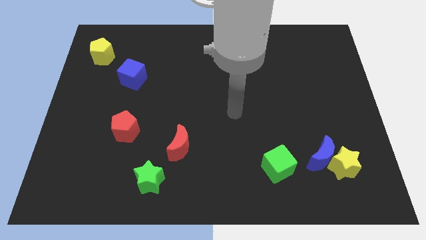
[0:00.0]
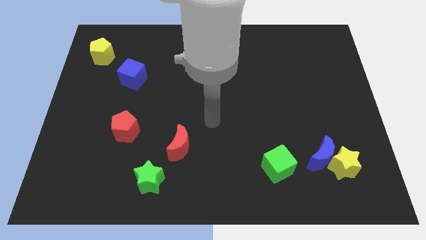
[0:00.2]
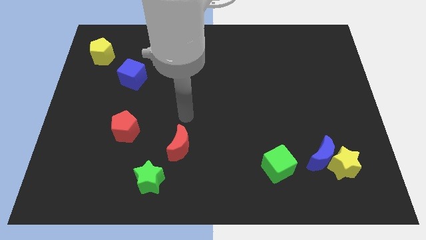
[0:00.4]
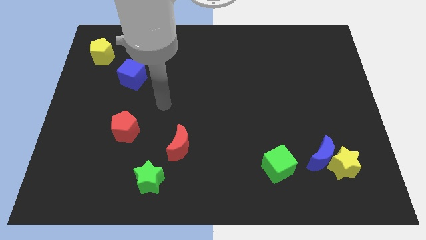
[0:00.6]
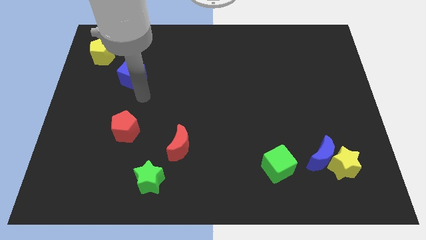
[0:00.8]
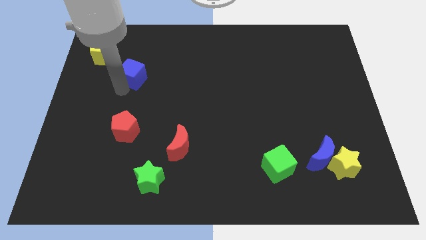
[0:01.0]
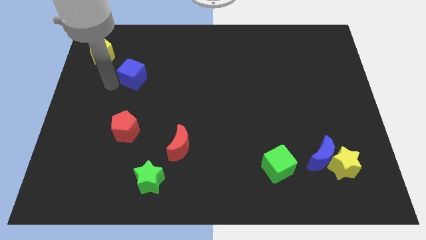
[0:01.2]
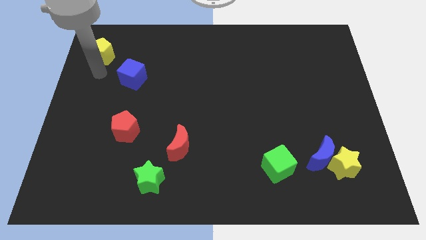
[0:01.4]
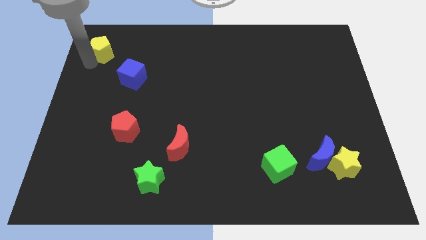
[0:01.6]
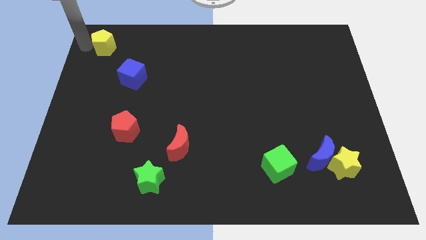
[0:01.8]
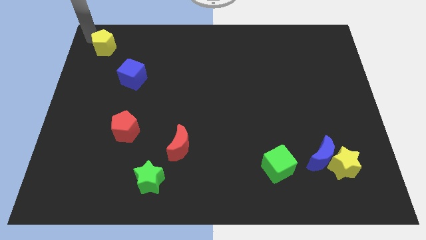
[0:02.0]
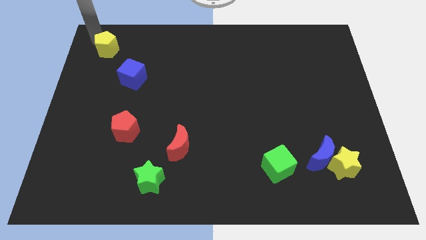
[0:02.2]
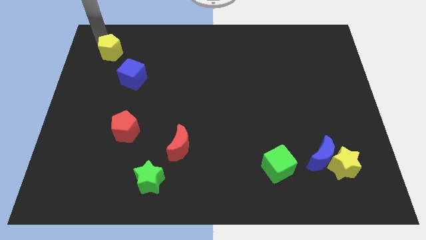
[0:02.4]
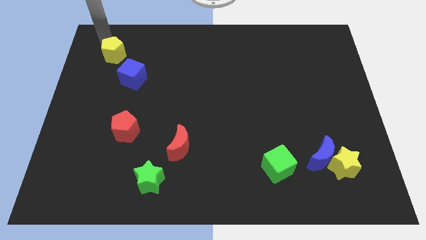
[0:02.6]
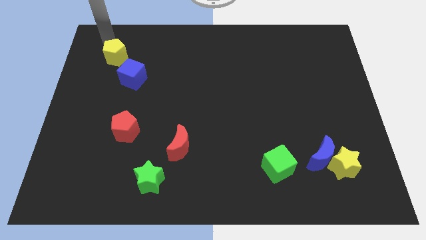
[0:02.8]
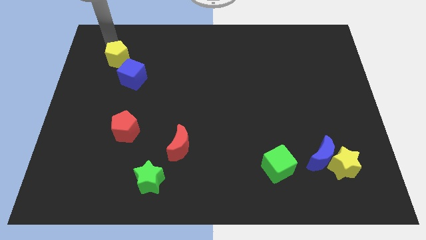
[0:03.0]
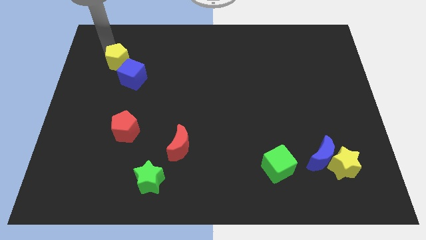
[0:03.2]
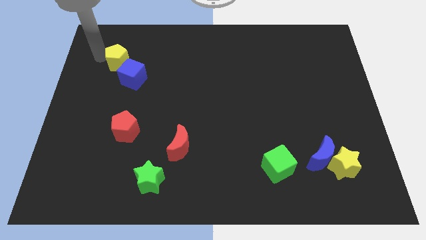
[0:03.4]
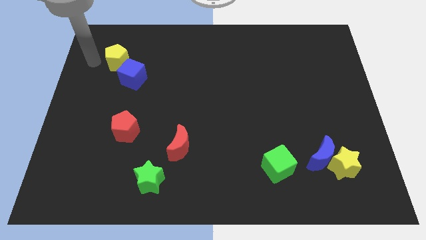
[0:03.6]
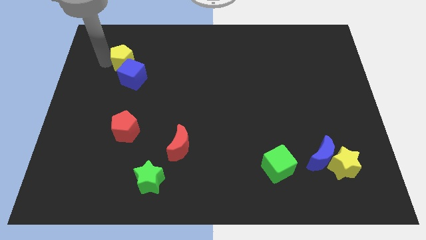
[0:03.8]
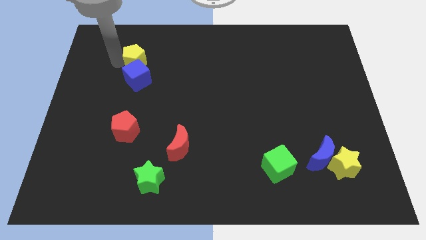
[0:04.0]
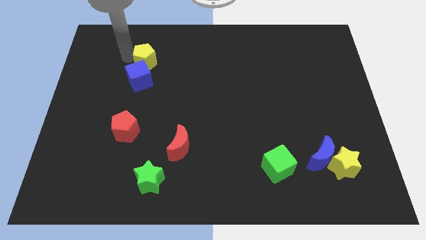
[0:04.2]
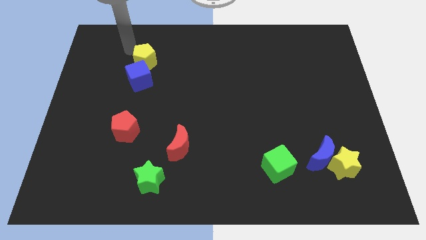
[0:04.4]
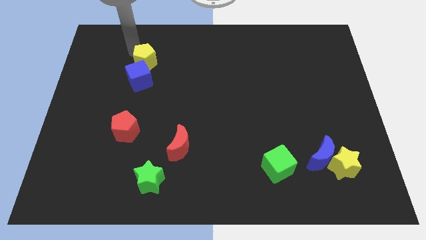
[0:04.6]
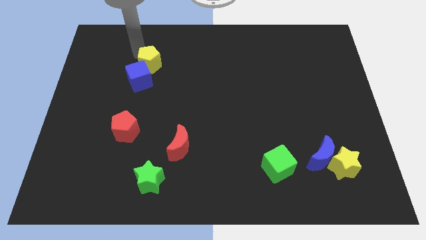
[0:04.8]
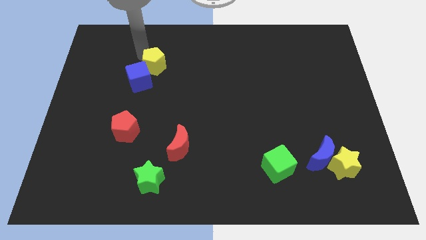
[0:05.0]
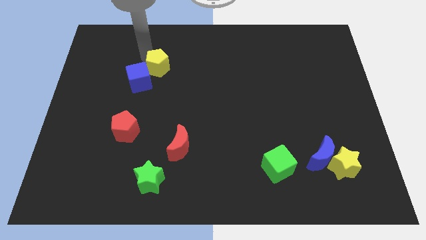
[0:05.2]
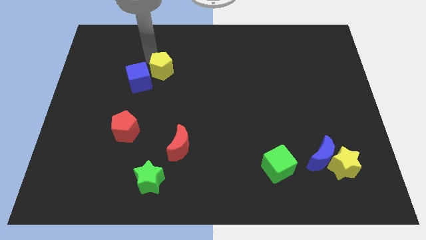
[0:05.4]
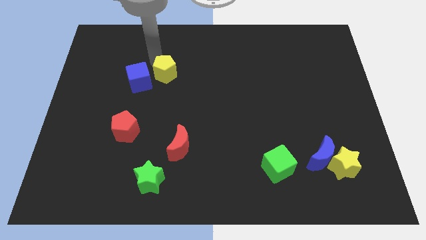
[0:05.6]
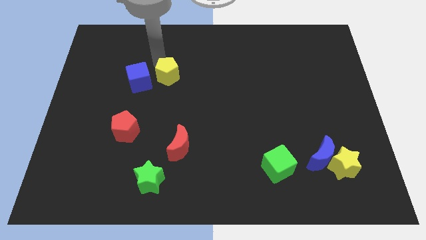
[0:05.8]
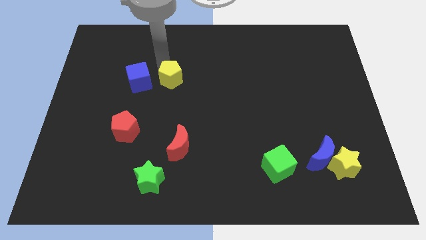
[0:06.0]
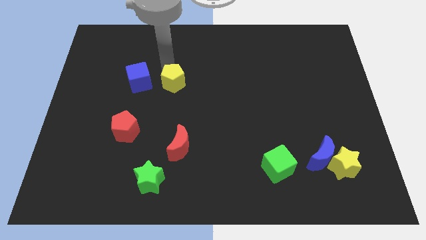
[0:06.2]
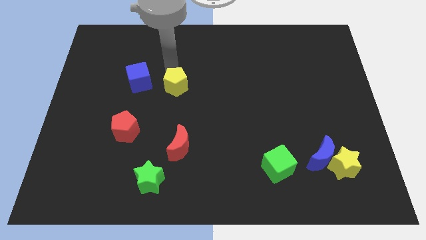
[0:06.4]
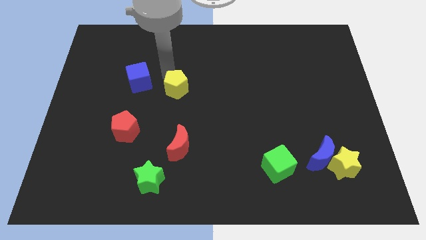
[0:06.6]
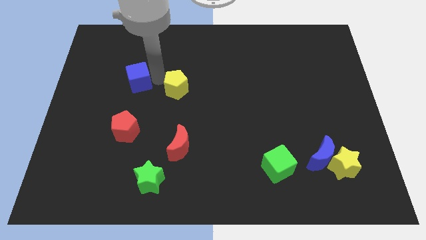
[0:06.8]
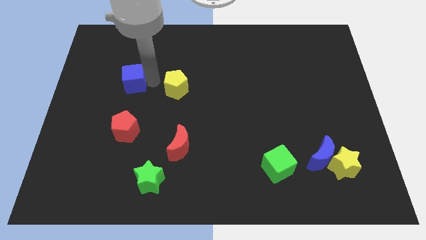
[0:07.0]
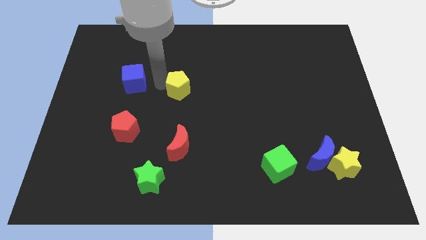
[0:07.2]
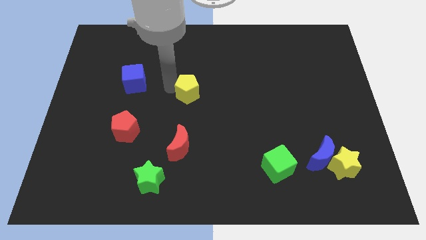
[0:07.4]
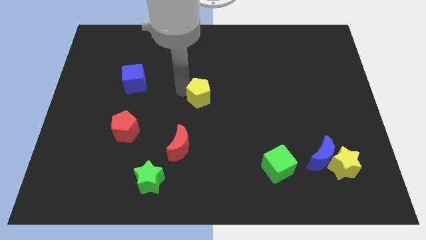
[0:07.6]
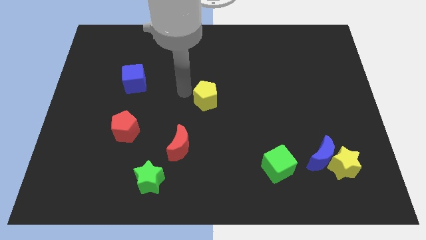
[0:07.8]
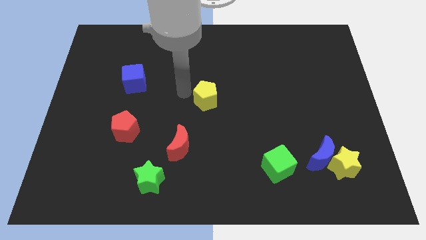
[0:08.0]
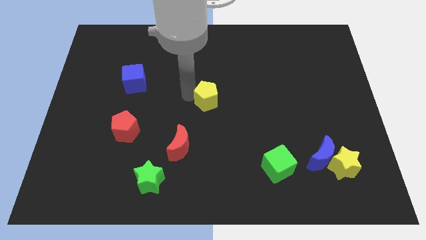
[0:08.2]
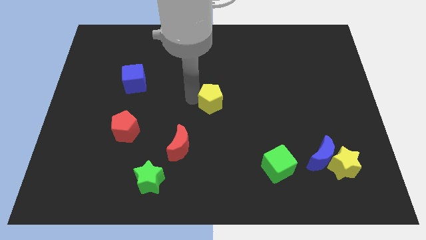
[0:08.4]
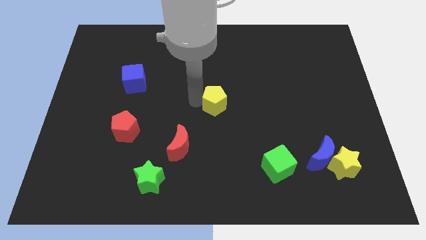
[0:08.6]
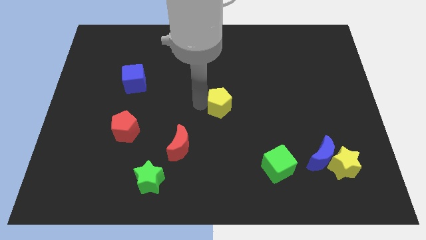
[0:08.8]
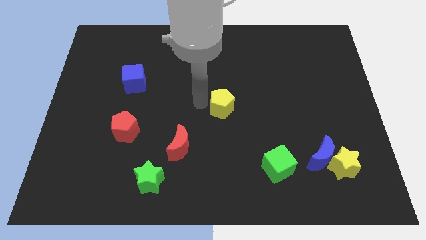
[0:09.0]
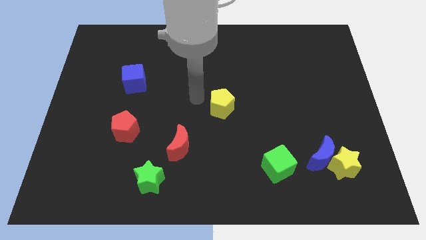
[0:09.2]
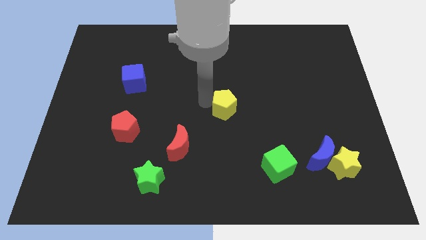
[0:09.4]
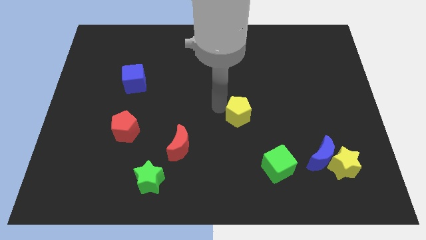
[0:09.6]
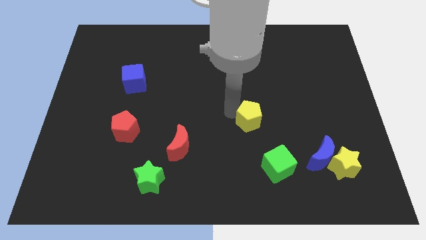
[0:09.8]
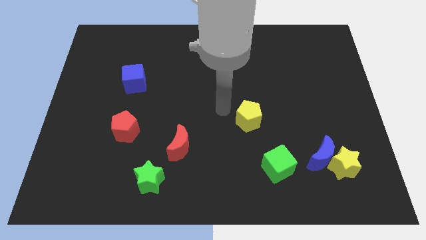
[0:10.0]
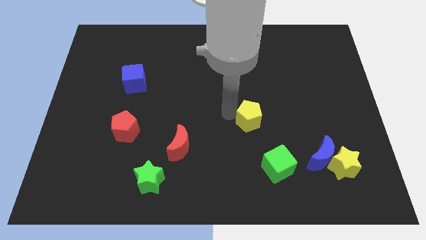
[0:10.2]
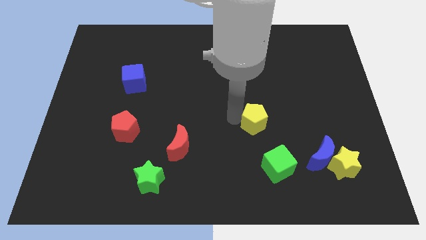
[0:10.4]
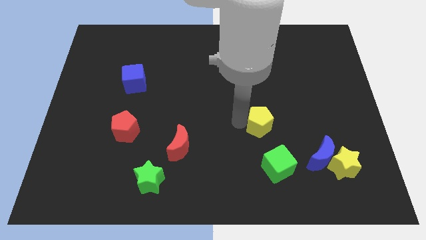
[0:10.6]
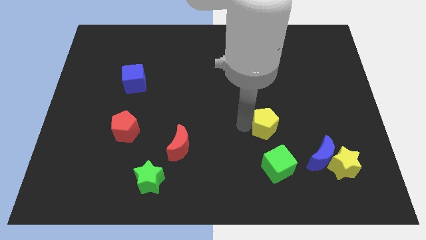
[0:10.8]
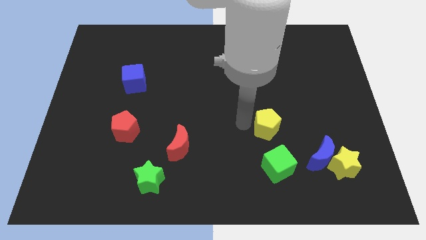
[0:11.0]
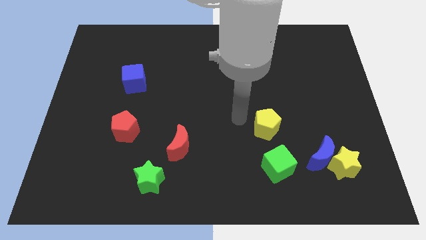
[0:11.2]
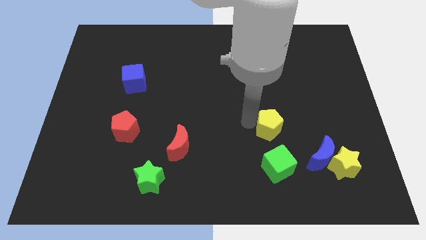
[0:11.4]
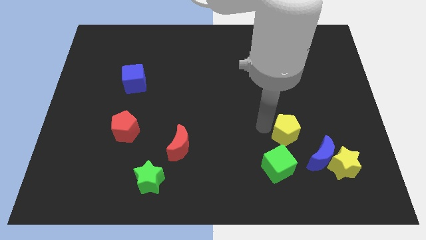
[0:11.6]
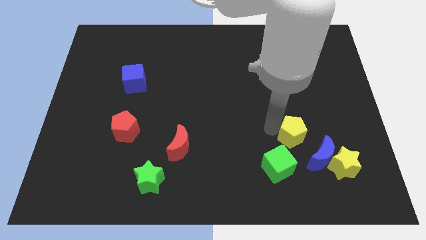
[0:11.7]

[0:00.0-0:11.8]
move the yellow pentagon to the top left side of the yellow star

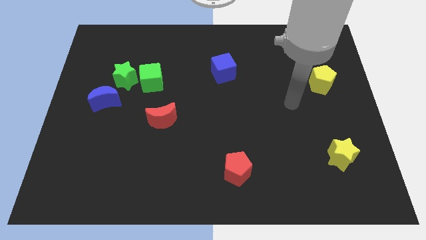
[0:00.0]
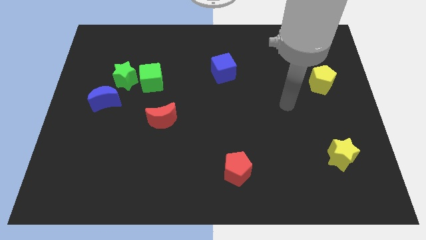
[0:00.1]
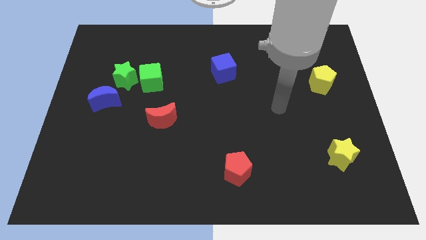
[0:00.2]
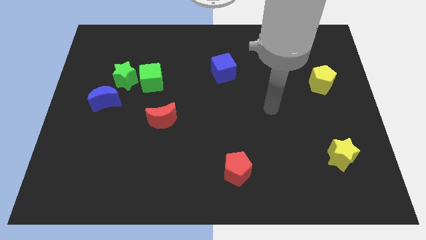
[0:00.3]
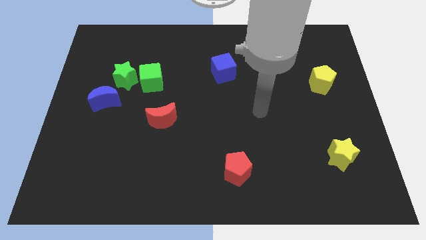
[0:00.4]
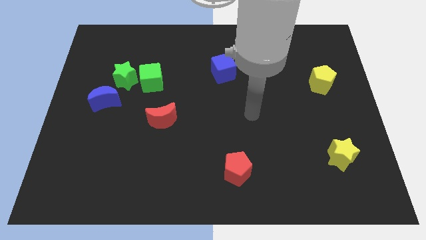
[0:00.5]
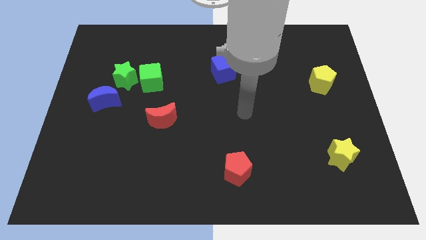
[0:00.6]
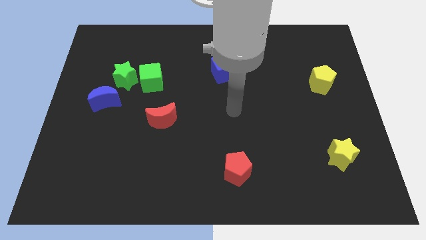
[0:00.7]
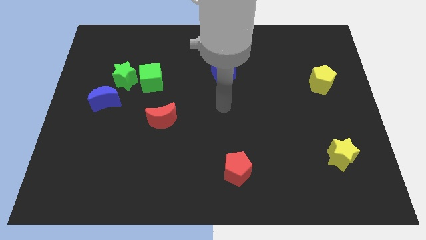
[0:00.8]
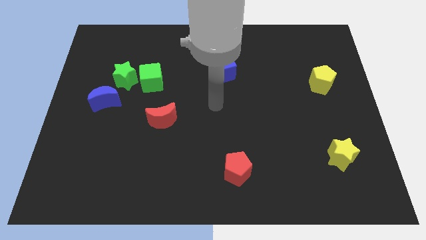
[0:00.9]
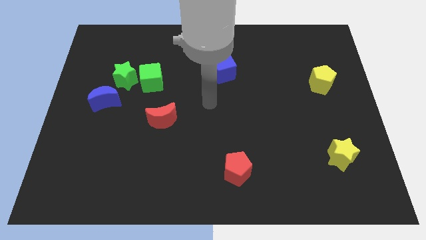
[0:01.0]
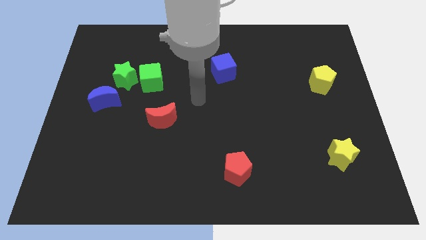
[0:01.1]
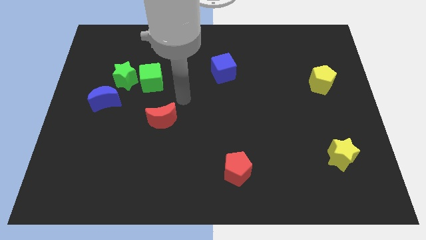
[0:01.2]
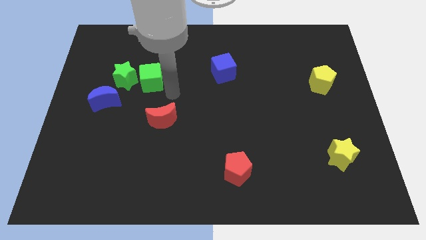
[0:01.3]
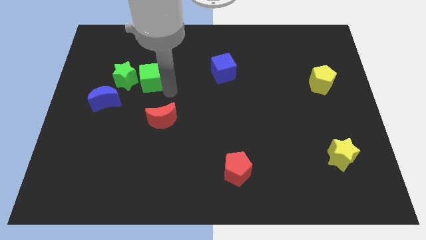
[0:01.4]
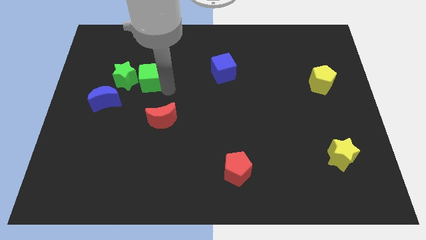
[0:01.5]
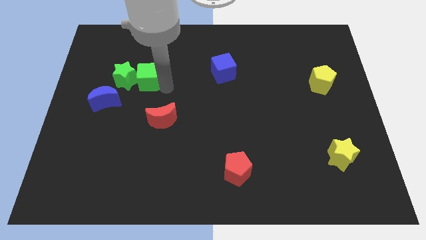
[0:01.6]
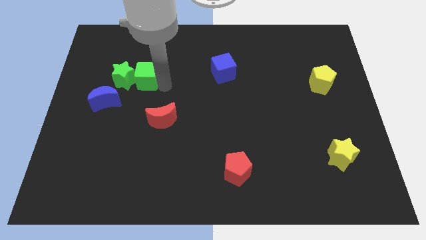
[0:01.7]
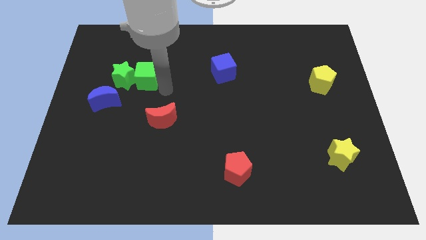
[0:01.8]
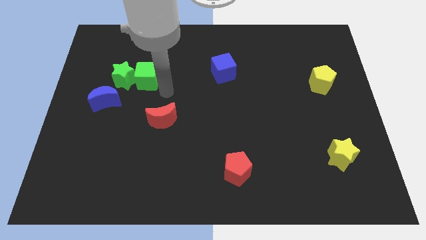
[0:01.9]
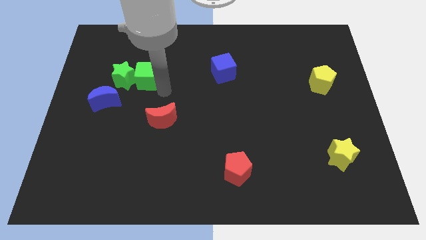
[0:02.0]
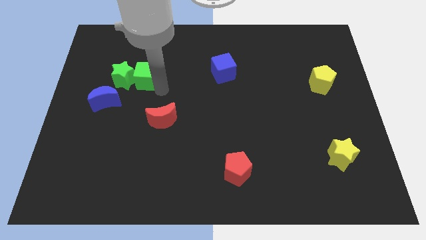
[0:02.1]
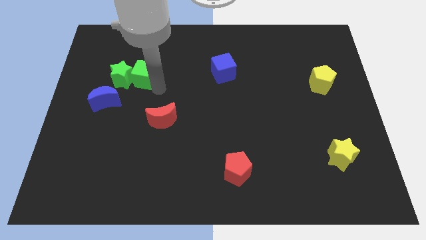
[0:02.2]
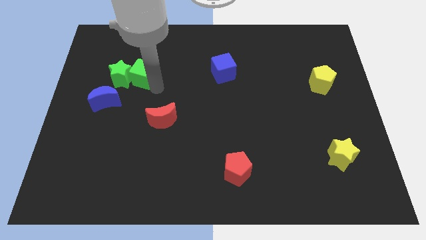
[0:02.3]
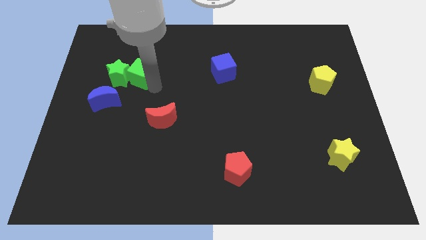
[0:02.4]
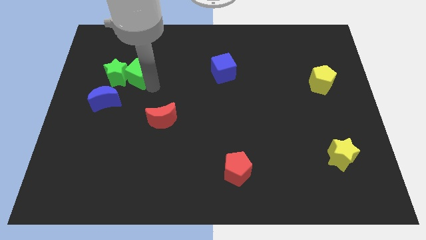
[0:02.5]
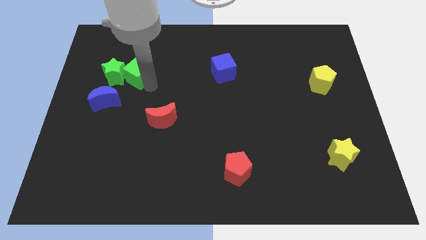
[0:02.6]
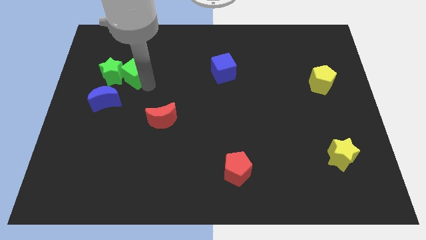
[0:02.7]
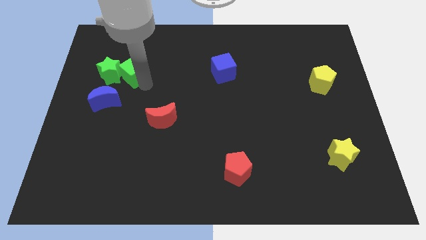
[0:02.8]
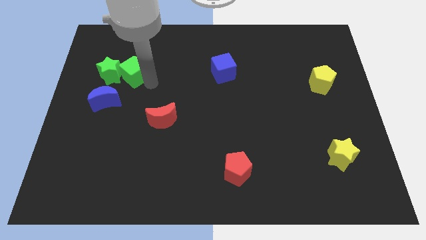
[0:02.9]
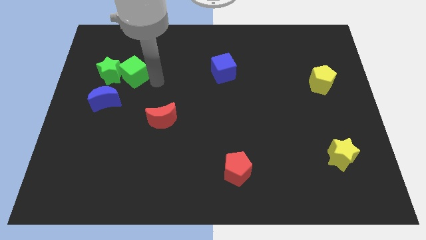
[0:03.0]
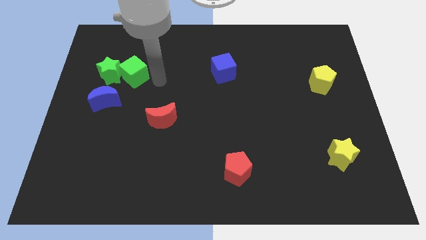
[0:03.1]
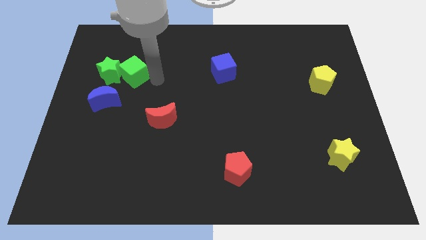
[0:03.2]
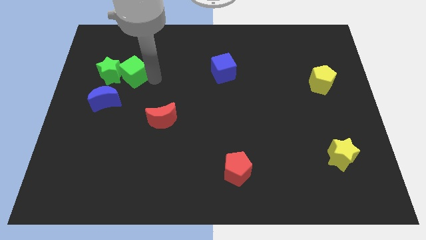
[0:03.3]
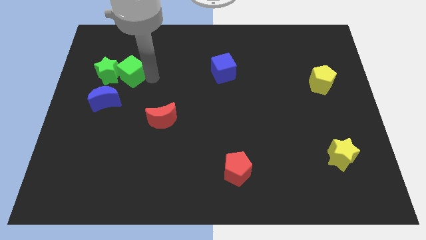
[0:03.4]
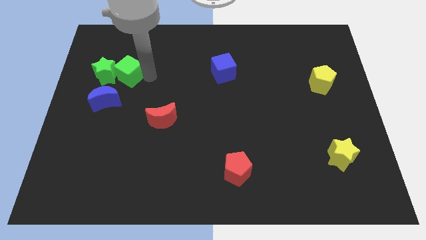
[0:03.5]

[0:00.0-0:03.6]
slide the green cube above the blue moon
